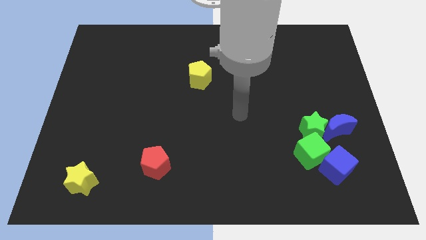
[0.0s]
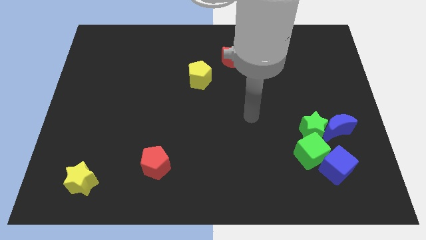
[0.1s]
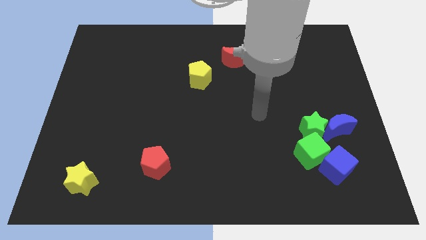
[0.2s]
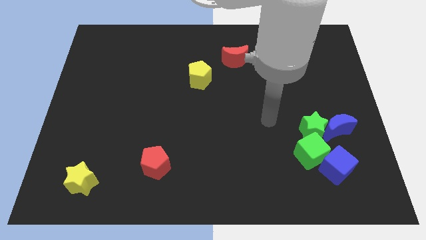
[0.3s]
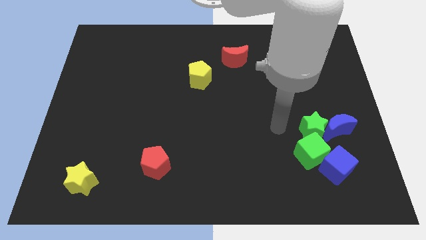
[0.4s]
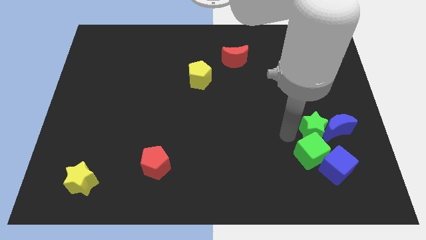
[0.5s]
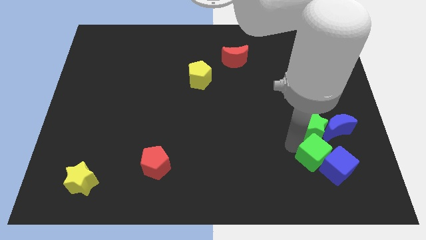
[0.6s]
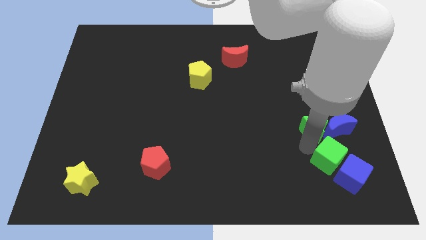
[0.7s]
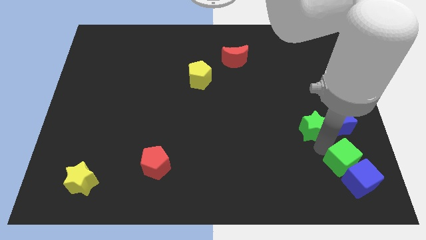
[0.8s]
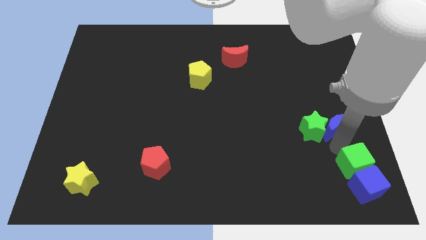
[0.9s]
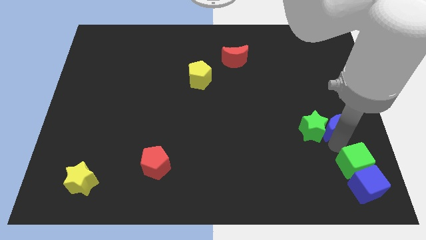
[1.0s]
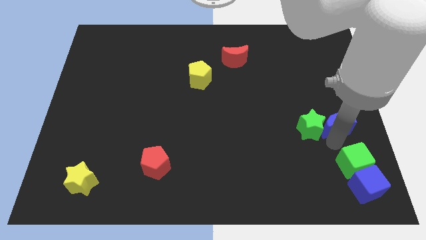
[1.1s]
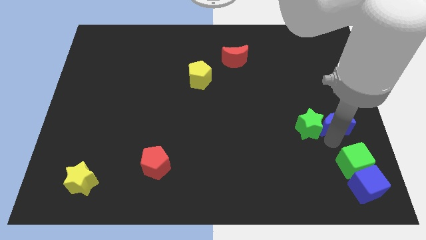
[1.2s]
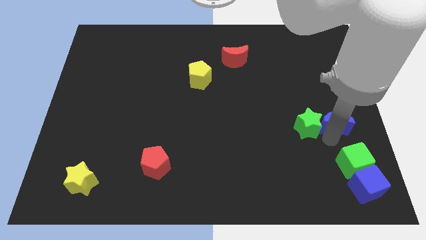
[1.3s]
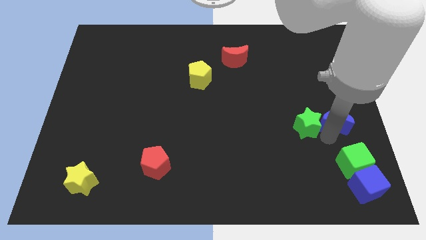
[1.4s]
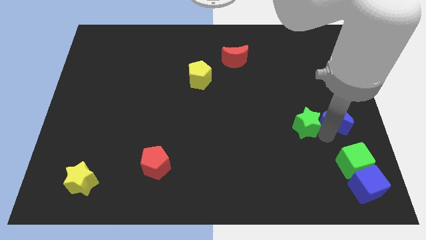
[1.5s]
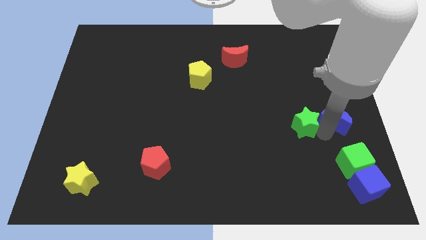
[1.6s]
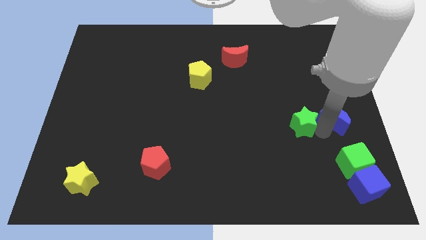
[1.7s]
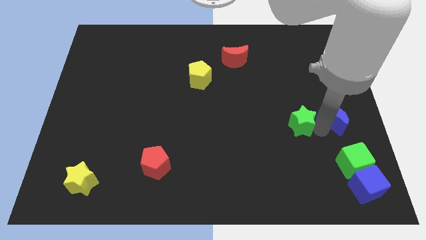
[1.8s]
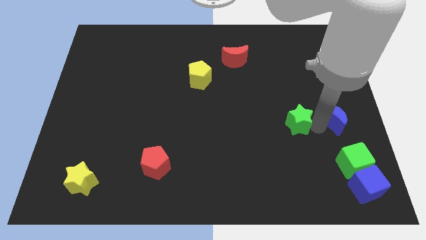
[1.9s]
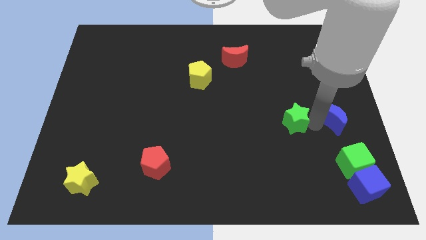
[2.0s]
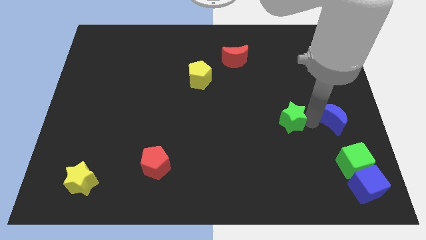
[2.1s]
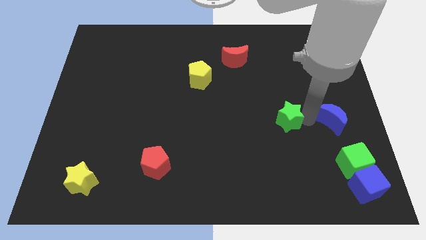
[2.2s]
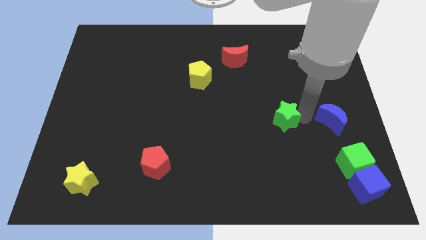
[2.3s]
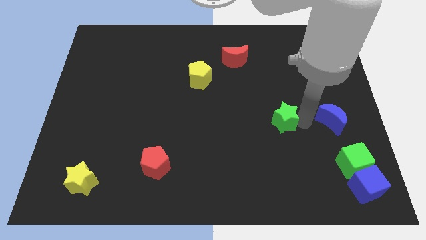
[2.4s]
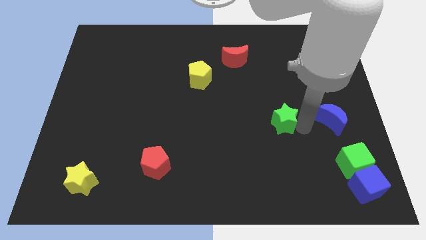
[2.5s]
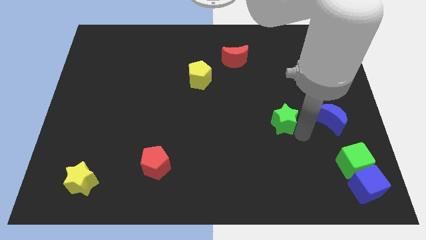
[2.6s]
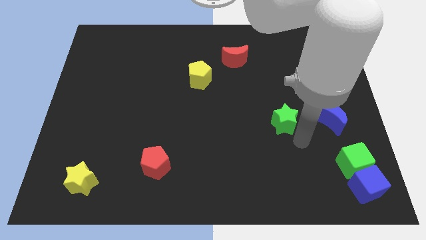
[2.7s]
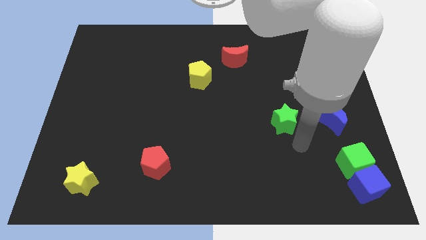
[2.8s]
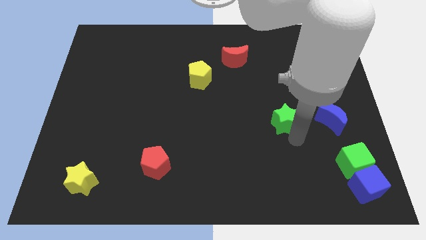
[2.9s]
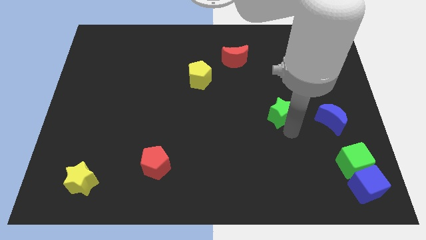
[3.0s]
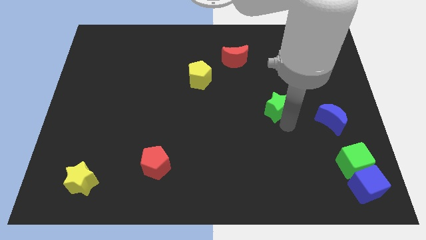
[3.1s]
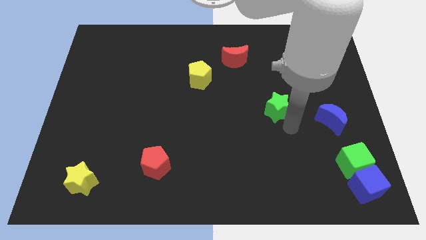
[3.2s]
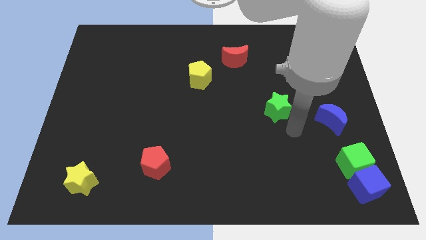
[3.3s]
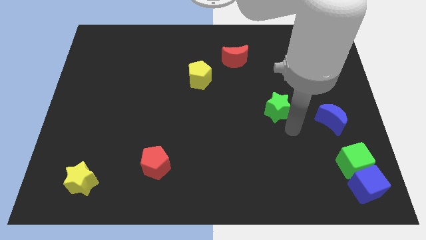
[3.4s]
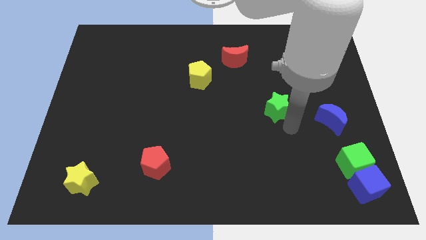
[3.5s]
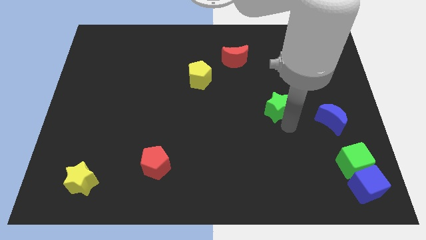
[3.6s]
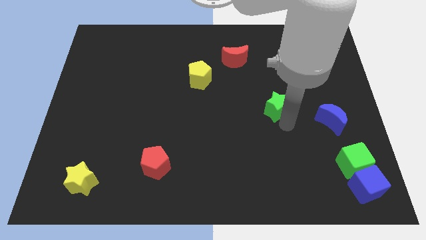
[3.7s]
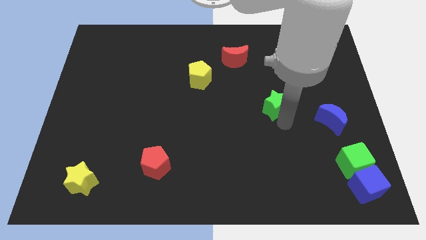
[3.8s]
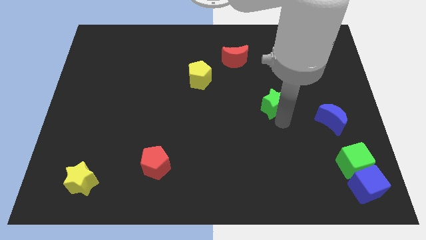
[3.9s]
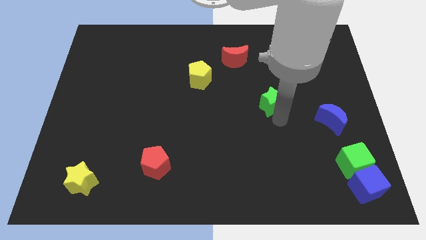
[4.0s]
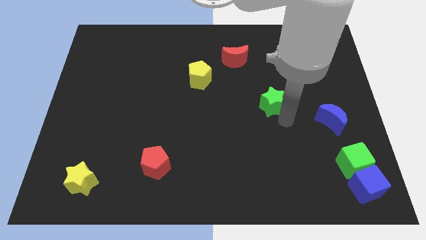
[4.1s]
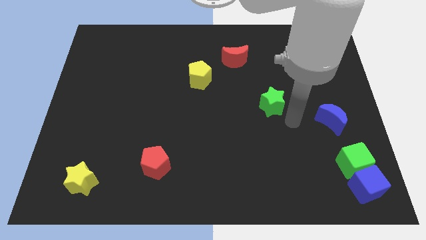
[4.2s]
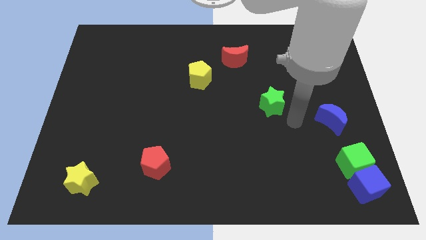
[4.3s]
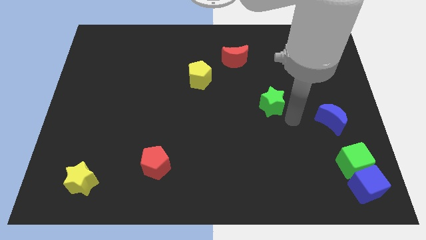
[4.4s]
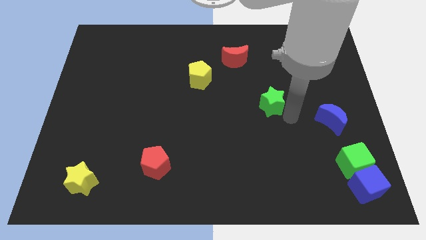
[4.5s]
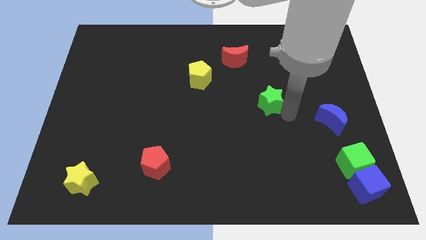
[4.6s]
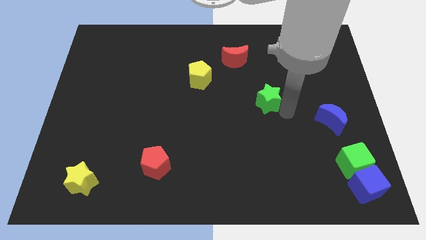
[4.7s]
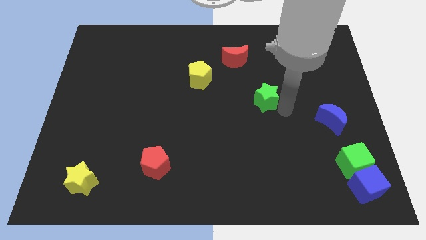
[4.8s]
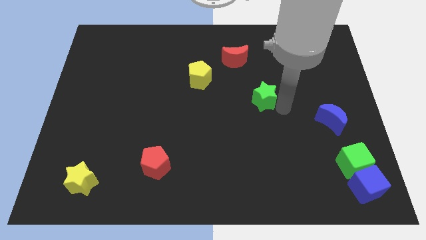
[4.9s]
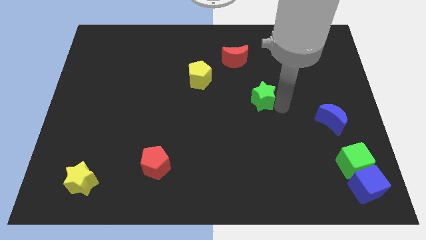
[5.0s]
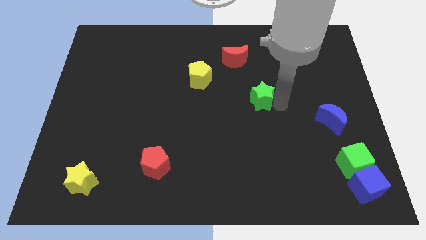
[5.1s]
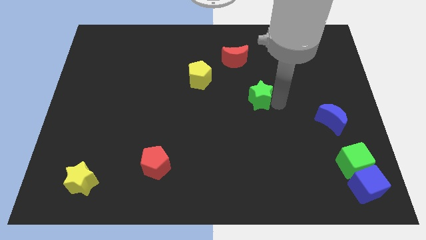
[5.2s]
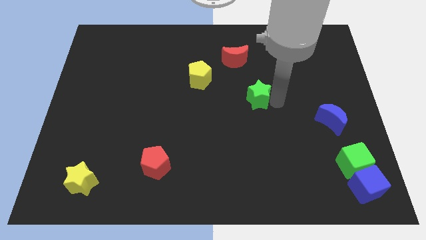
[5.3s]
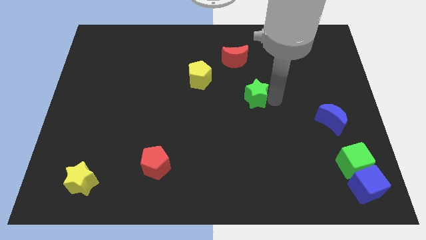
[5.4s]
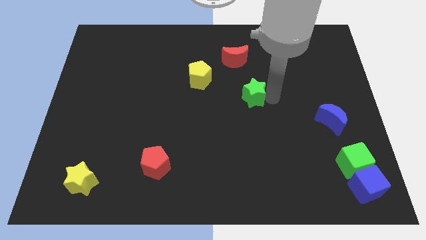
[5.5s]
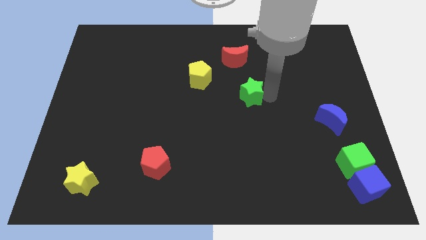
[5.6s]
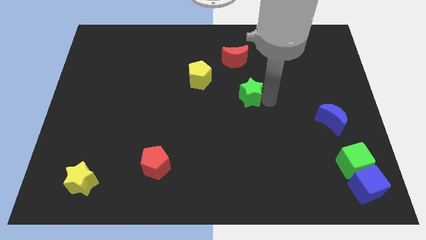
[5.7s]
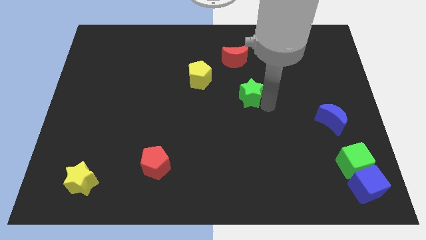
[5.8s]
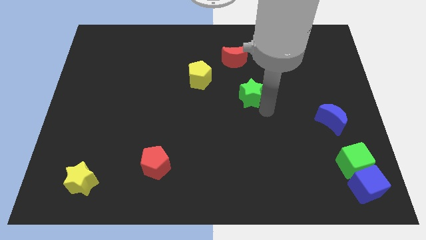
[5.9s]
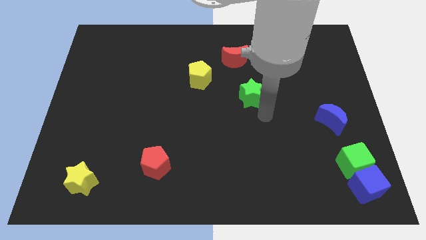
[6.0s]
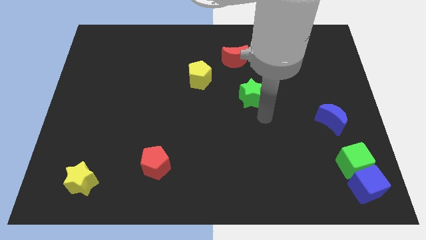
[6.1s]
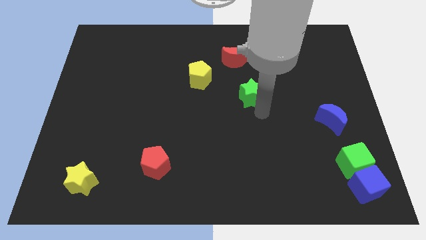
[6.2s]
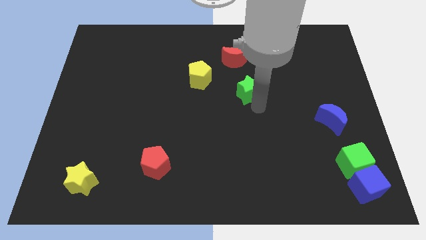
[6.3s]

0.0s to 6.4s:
slide the green star right of the yellow pentagon
